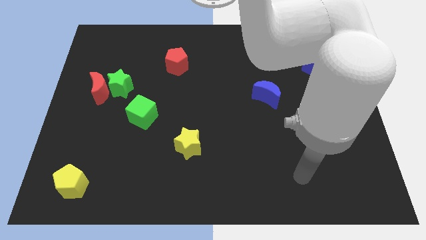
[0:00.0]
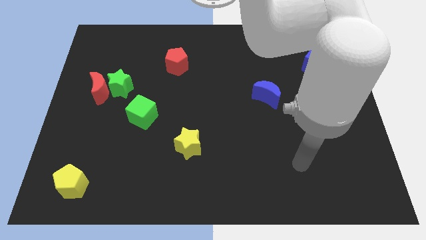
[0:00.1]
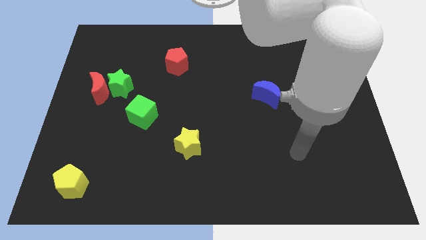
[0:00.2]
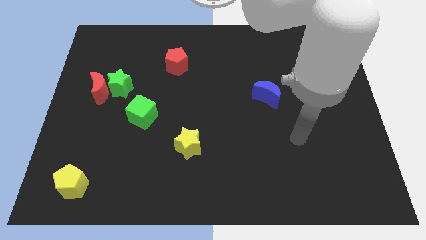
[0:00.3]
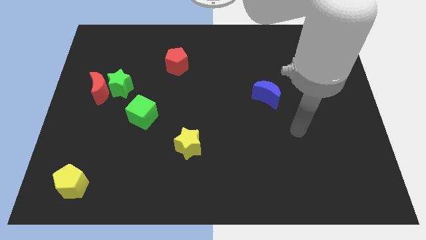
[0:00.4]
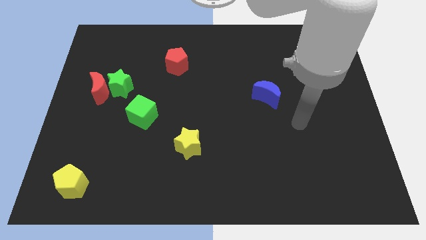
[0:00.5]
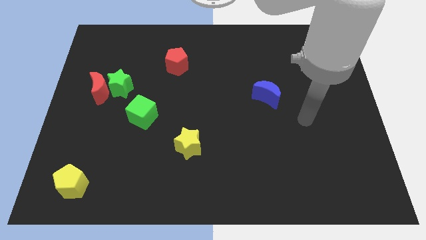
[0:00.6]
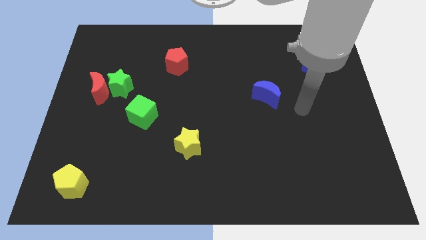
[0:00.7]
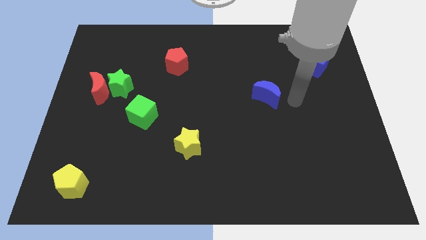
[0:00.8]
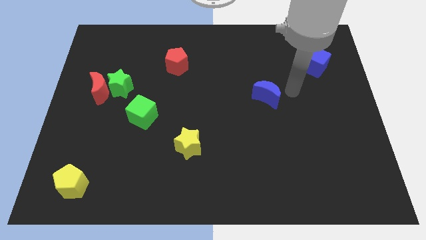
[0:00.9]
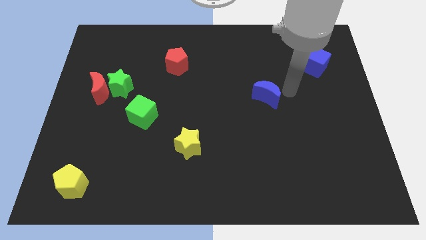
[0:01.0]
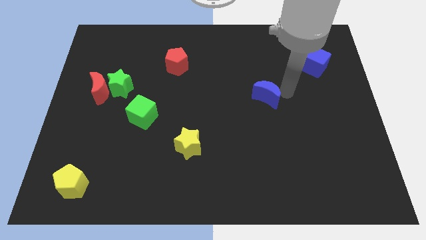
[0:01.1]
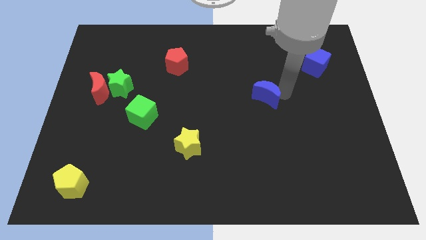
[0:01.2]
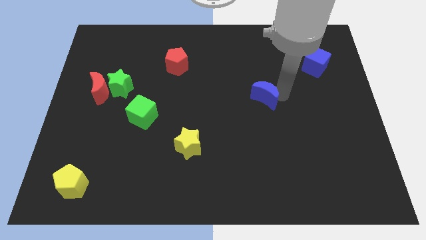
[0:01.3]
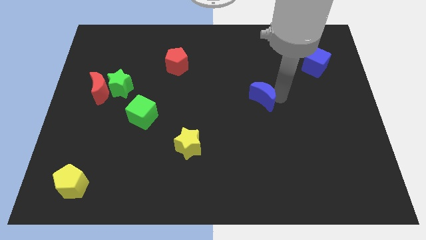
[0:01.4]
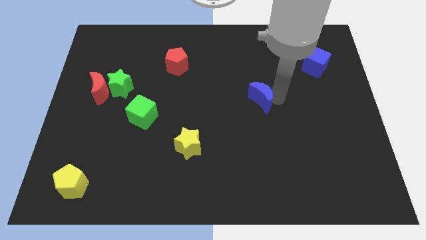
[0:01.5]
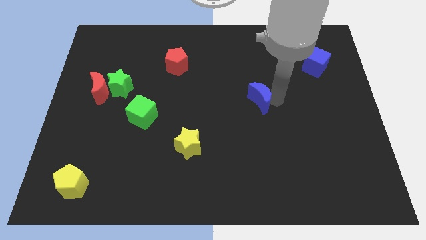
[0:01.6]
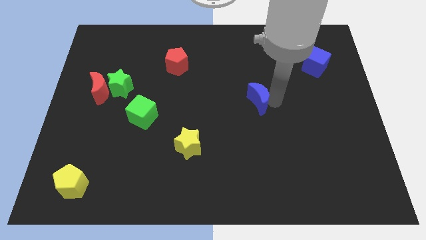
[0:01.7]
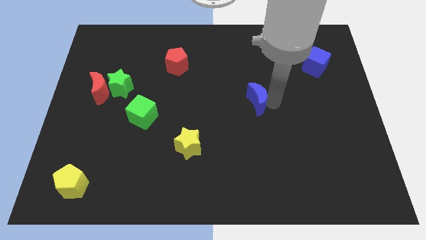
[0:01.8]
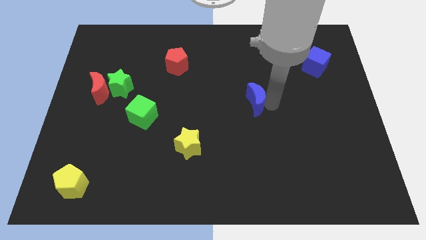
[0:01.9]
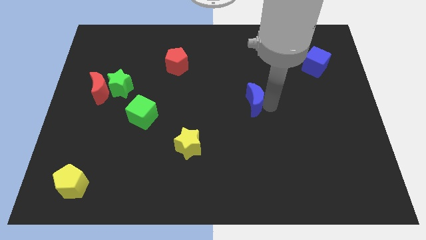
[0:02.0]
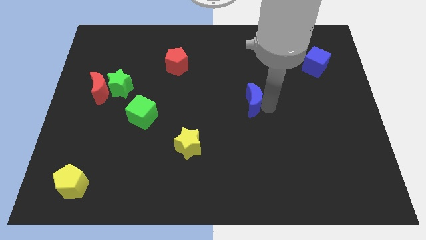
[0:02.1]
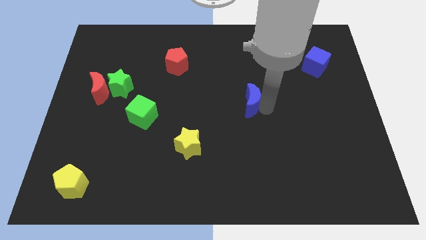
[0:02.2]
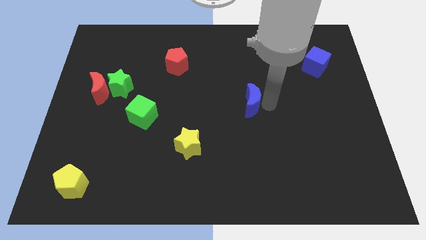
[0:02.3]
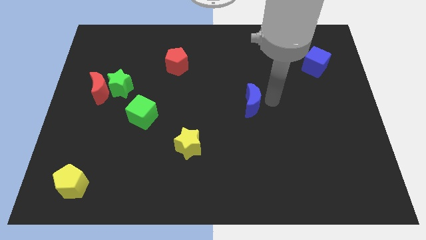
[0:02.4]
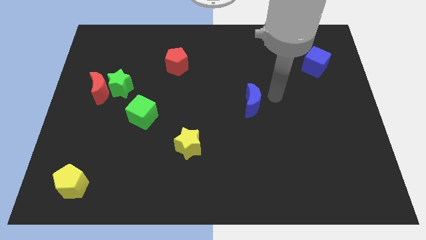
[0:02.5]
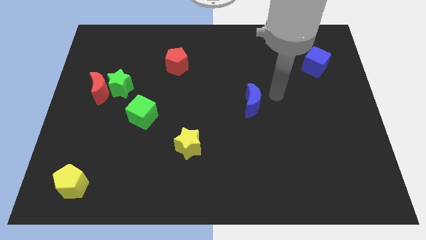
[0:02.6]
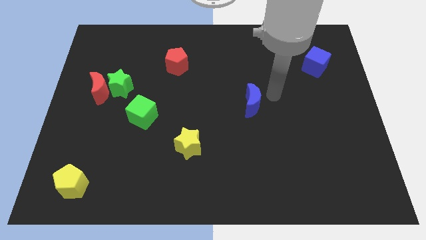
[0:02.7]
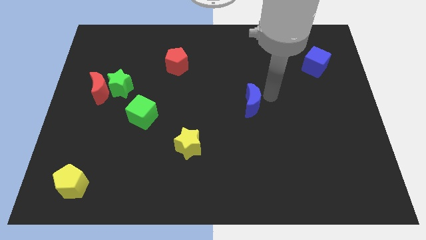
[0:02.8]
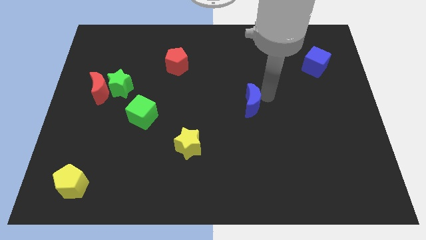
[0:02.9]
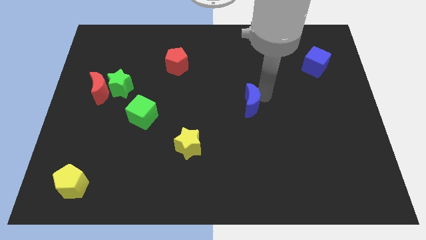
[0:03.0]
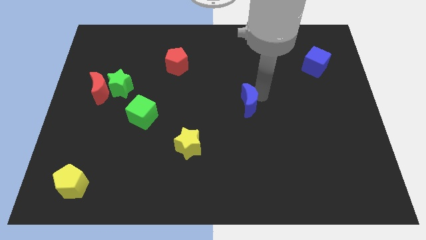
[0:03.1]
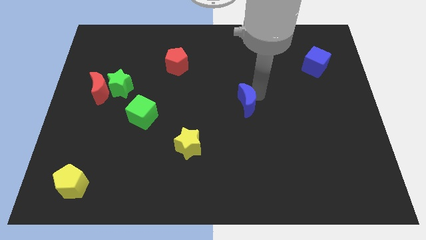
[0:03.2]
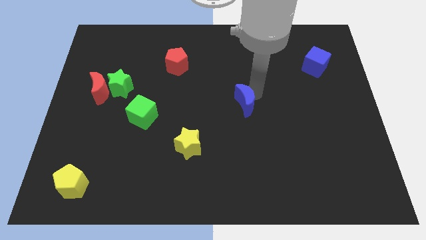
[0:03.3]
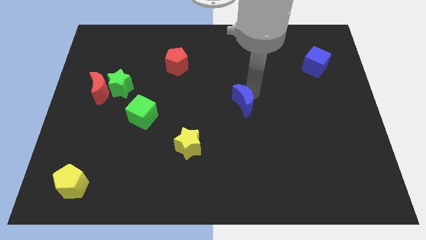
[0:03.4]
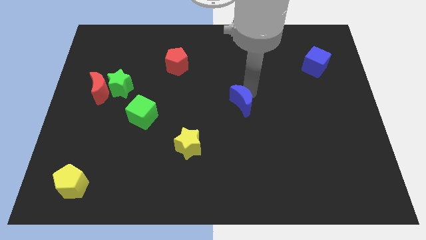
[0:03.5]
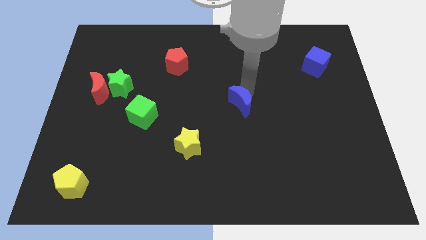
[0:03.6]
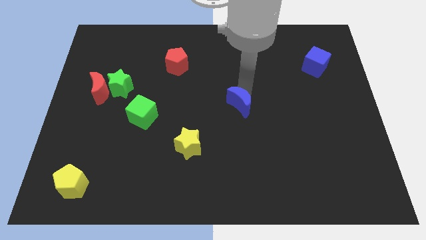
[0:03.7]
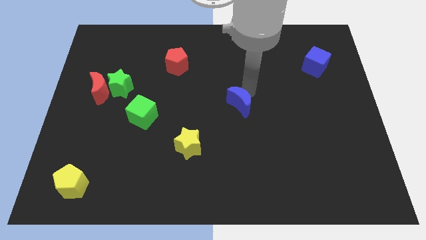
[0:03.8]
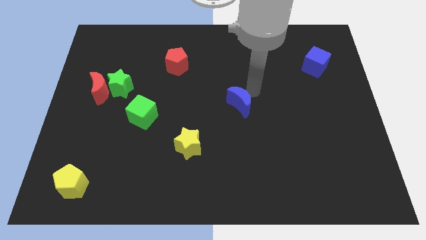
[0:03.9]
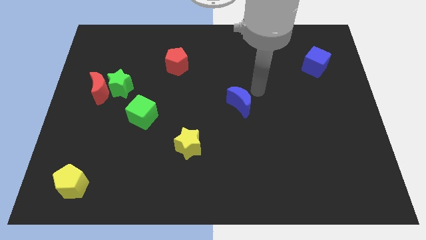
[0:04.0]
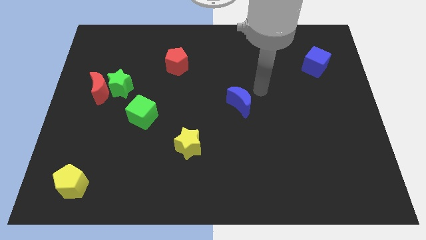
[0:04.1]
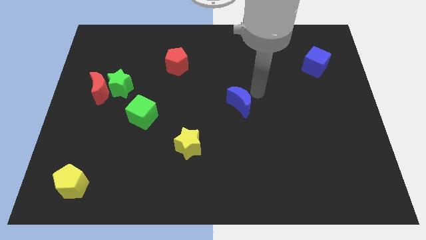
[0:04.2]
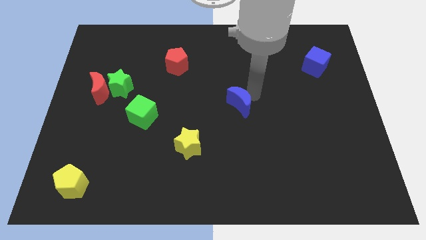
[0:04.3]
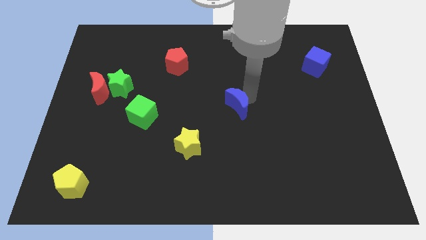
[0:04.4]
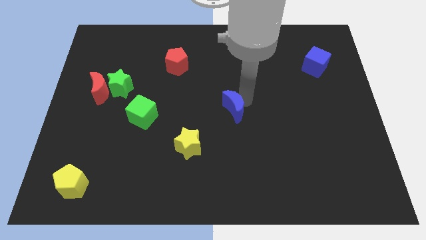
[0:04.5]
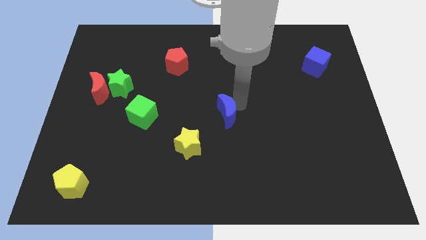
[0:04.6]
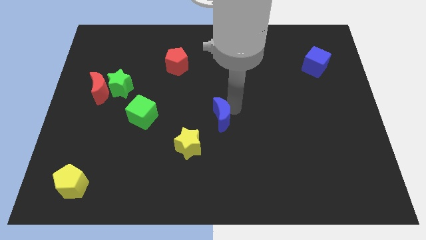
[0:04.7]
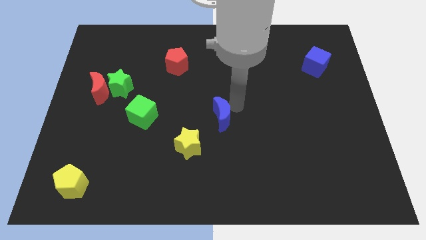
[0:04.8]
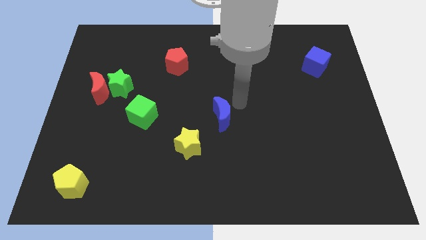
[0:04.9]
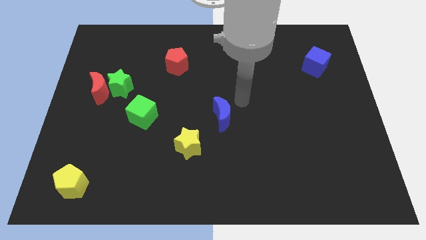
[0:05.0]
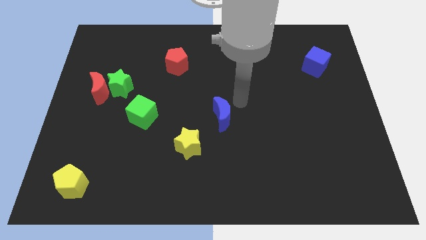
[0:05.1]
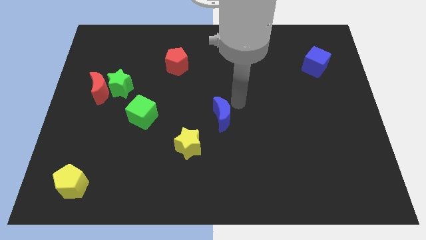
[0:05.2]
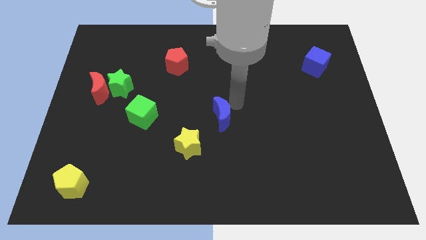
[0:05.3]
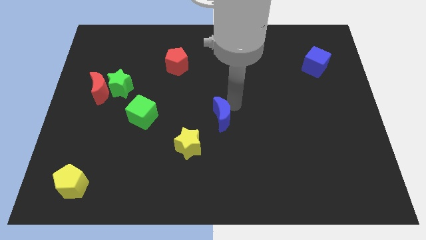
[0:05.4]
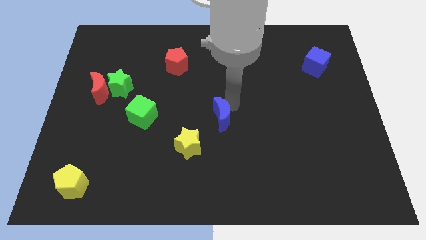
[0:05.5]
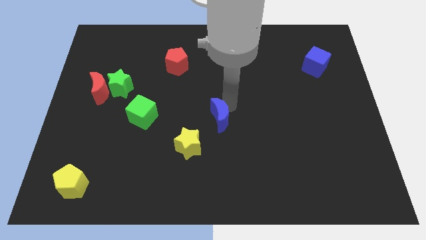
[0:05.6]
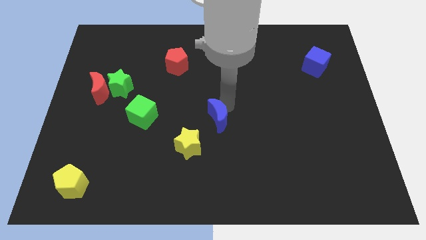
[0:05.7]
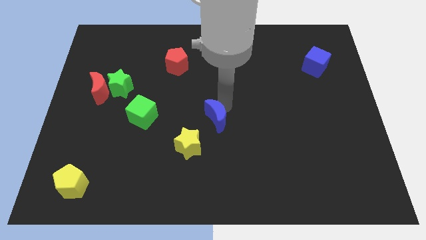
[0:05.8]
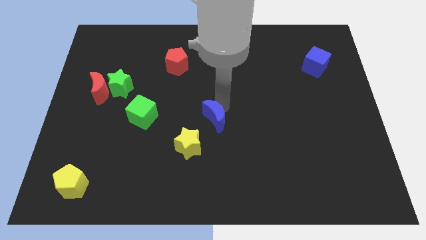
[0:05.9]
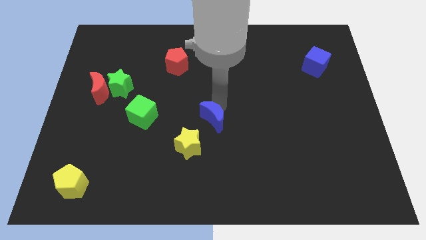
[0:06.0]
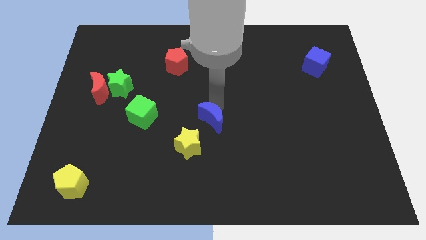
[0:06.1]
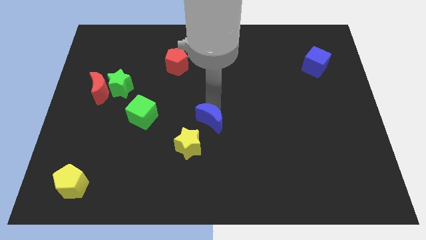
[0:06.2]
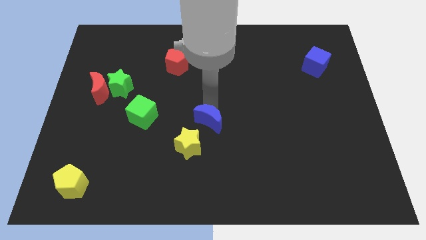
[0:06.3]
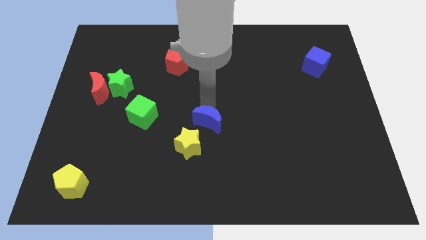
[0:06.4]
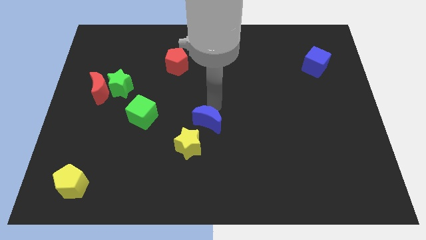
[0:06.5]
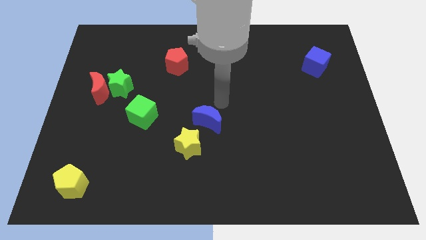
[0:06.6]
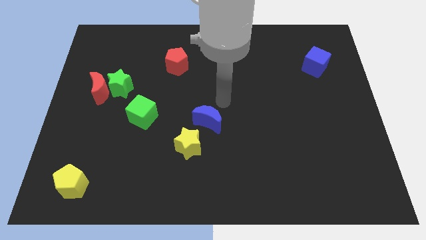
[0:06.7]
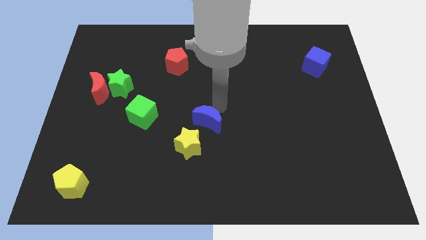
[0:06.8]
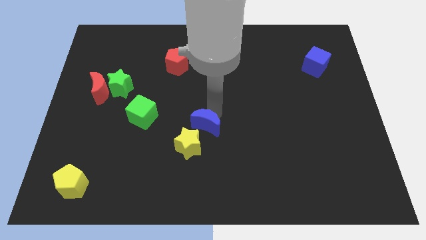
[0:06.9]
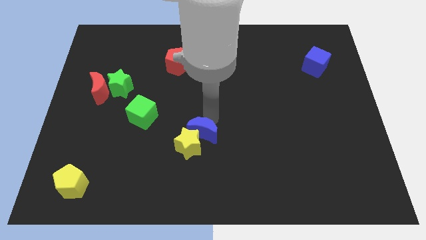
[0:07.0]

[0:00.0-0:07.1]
push the blue moon to the yellow star

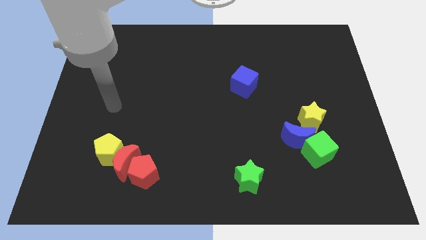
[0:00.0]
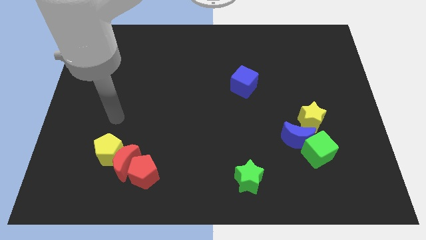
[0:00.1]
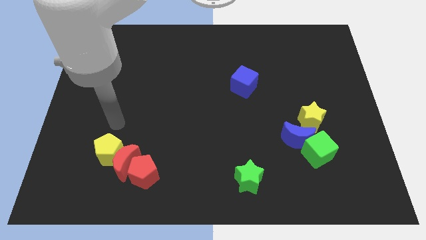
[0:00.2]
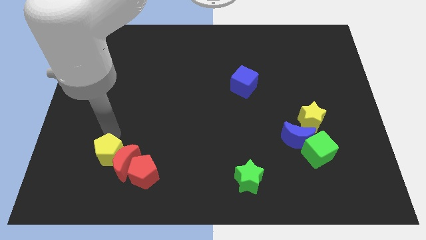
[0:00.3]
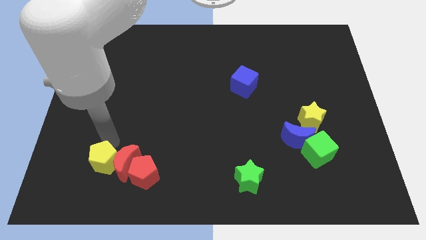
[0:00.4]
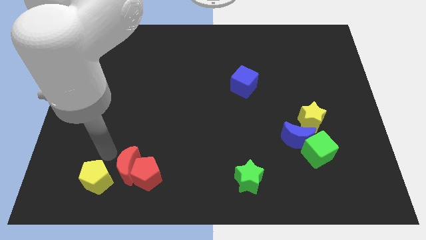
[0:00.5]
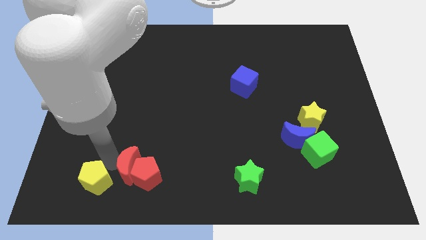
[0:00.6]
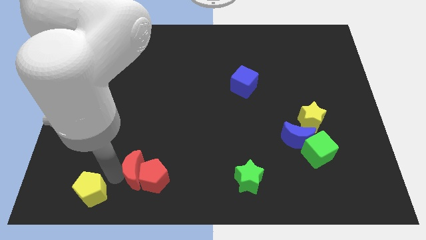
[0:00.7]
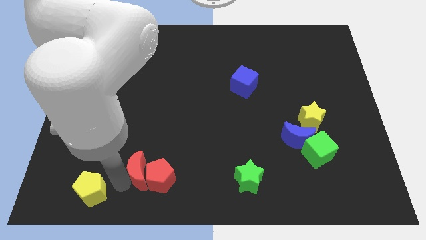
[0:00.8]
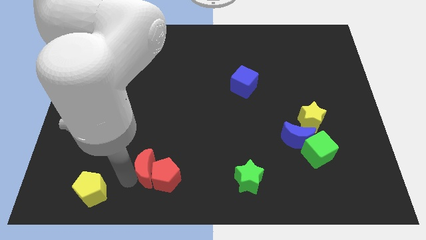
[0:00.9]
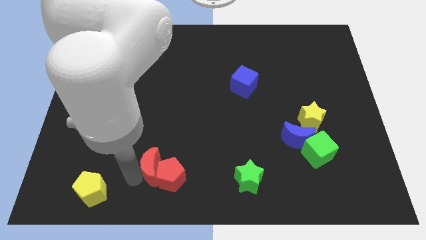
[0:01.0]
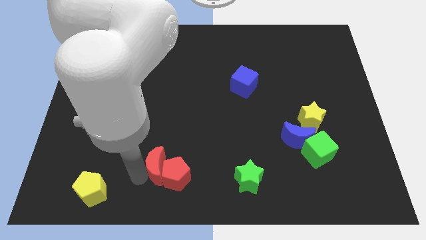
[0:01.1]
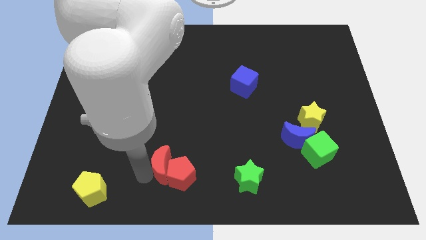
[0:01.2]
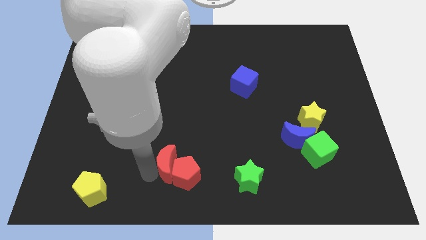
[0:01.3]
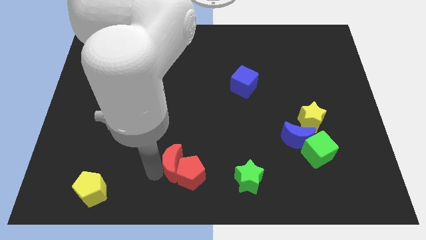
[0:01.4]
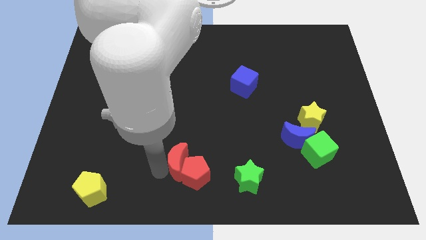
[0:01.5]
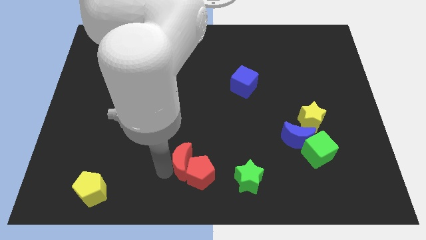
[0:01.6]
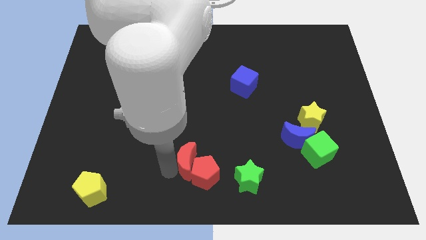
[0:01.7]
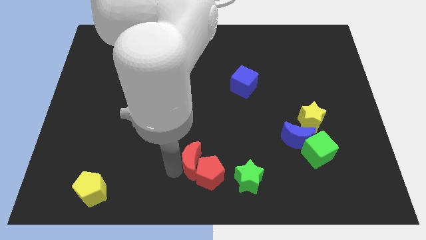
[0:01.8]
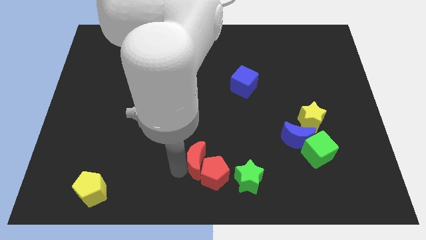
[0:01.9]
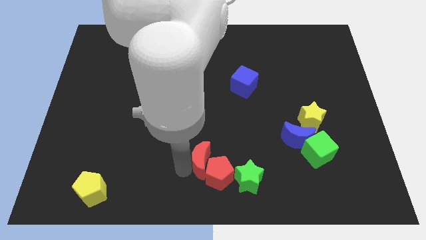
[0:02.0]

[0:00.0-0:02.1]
move the red pentagon next to the green star
